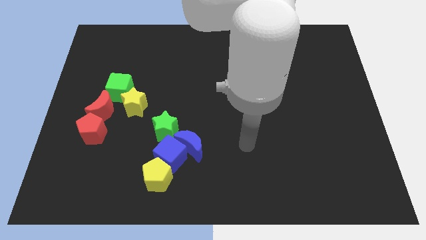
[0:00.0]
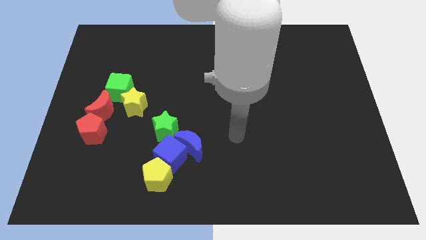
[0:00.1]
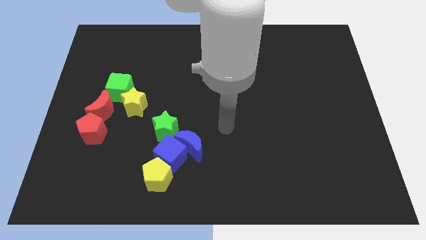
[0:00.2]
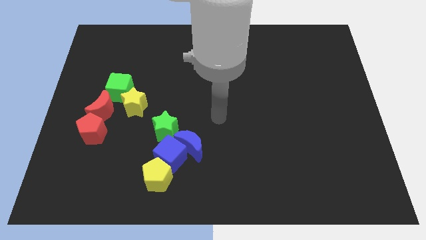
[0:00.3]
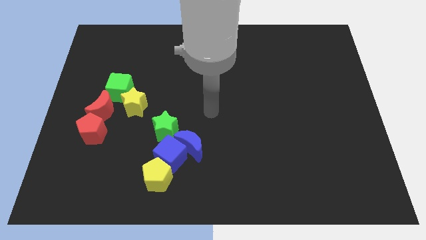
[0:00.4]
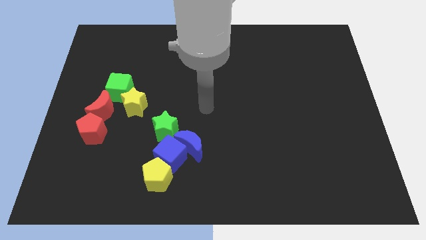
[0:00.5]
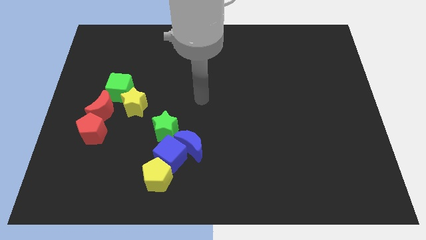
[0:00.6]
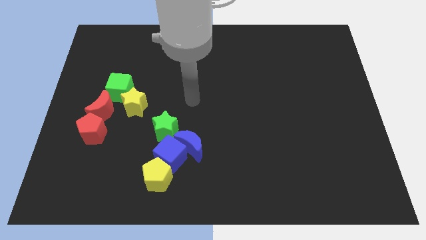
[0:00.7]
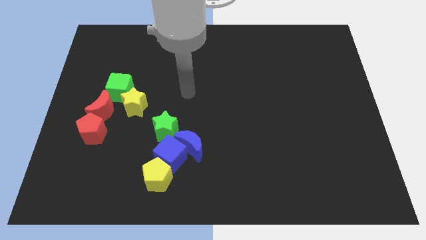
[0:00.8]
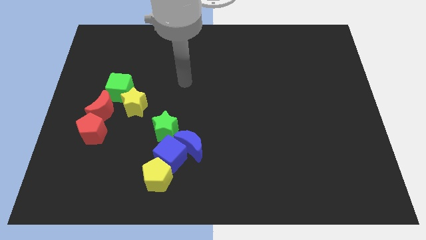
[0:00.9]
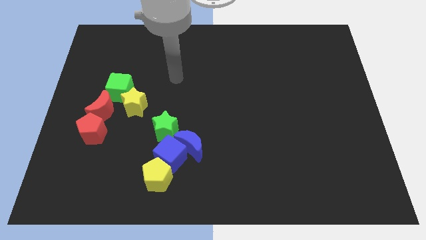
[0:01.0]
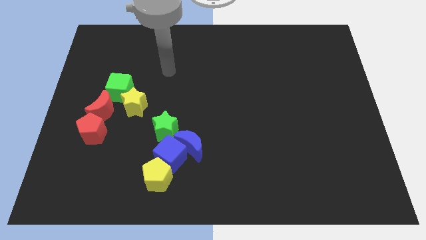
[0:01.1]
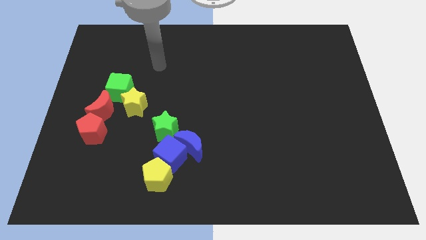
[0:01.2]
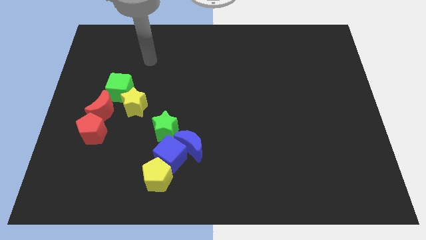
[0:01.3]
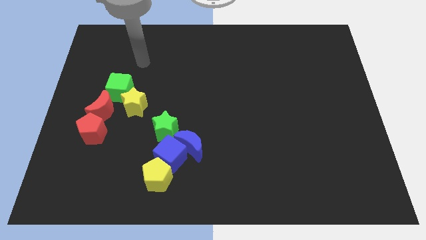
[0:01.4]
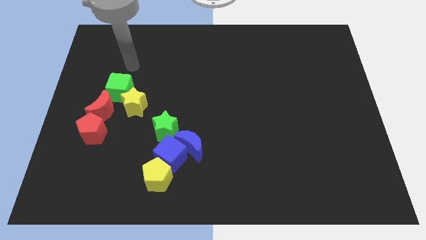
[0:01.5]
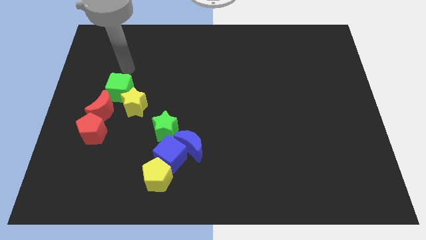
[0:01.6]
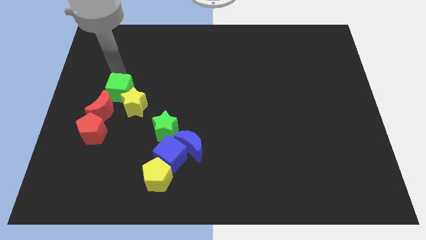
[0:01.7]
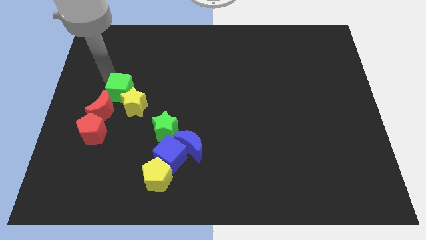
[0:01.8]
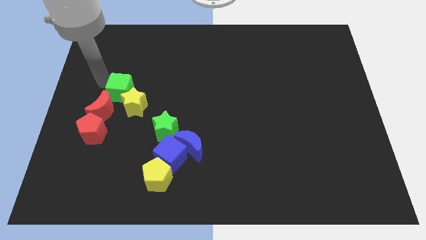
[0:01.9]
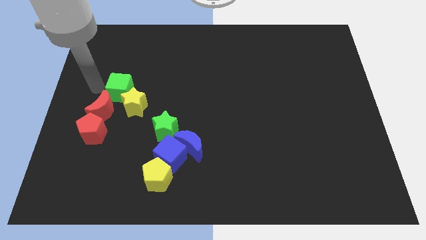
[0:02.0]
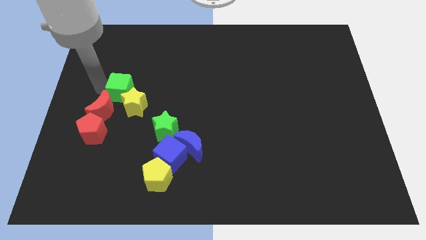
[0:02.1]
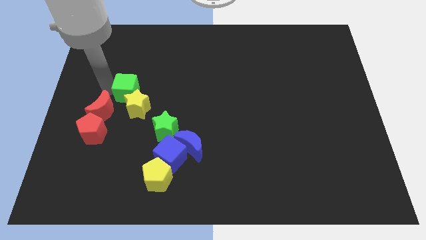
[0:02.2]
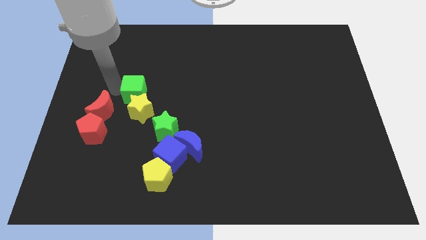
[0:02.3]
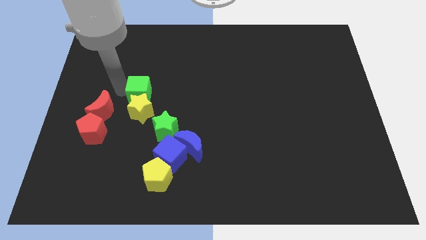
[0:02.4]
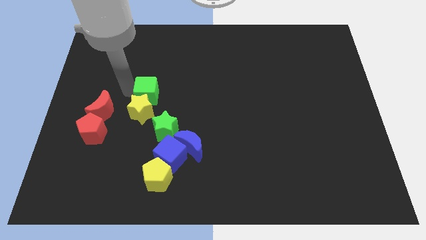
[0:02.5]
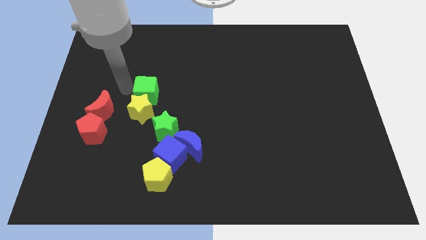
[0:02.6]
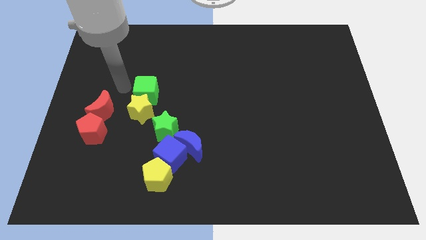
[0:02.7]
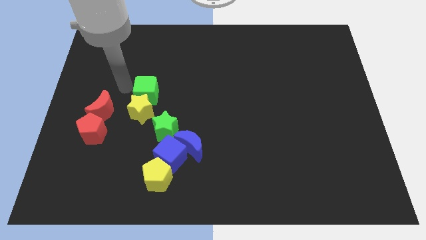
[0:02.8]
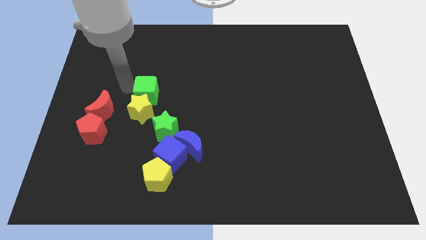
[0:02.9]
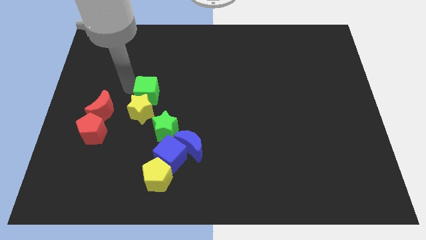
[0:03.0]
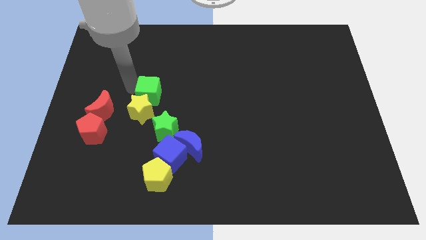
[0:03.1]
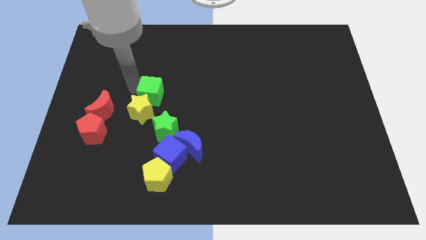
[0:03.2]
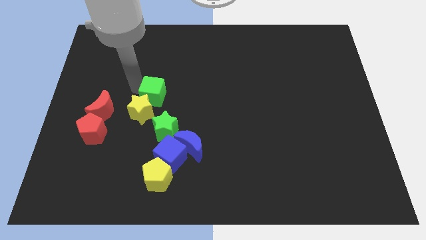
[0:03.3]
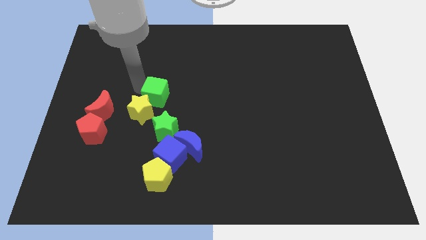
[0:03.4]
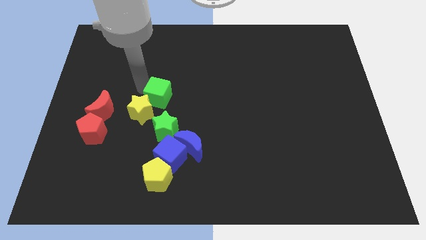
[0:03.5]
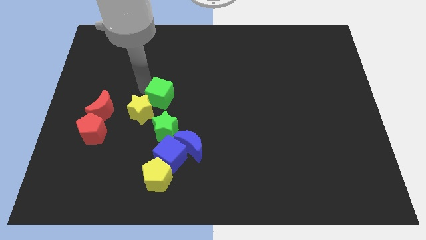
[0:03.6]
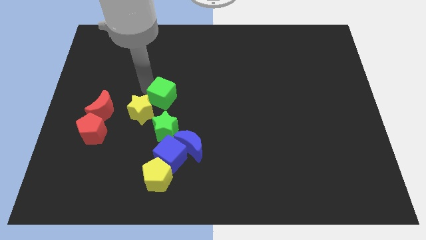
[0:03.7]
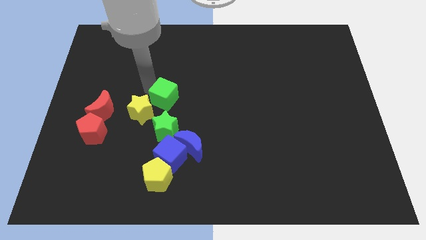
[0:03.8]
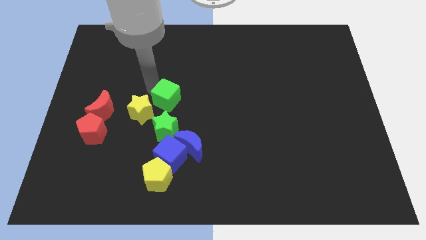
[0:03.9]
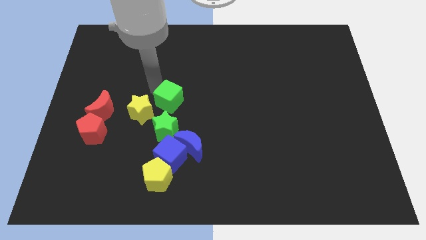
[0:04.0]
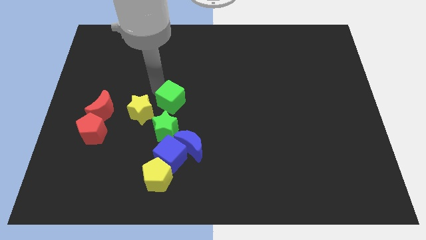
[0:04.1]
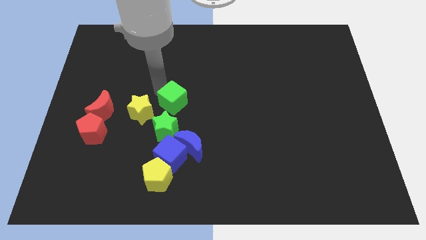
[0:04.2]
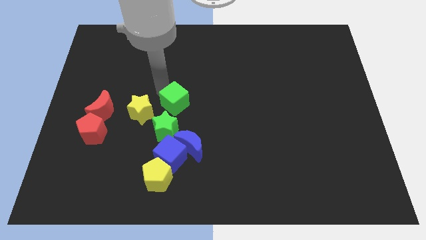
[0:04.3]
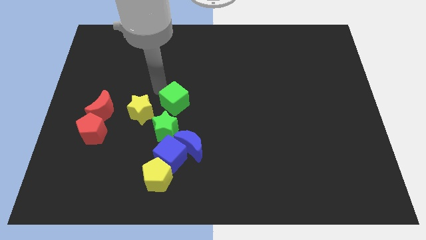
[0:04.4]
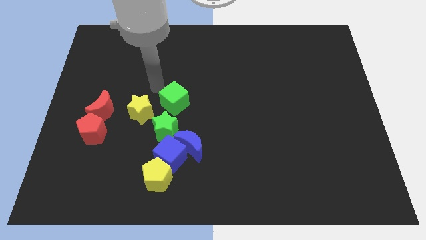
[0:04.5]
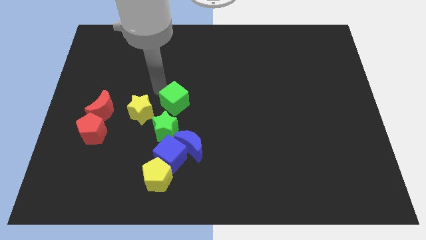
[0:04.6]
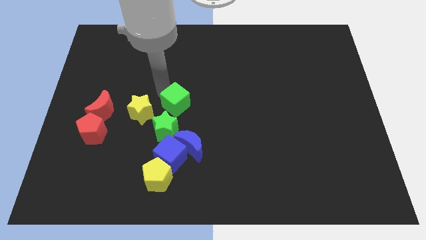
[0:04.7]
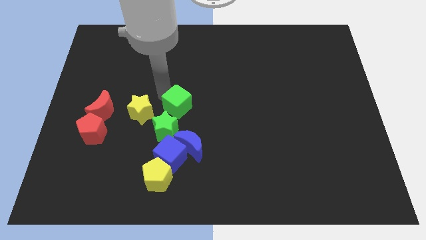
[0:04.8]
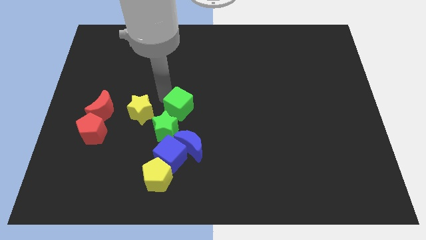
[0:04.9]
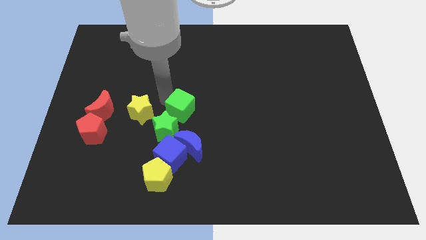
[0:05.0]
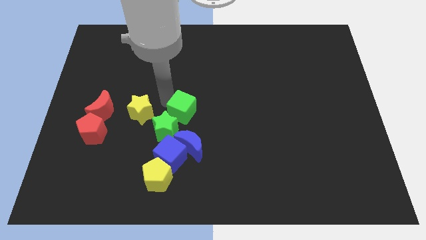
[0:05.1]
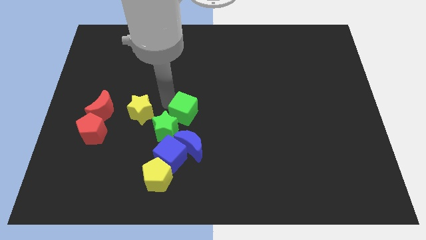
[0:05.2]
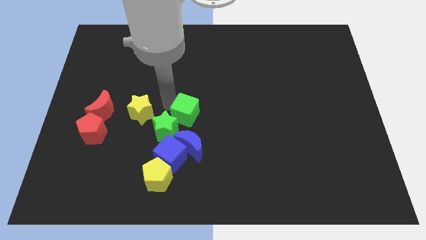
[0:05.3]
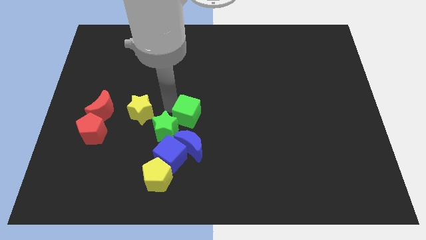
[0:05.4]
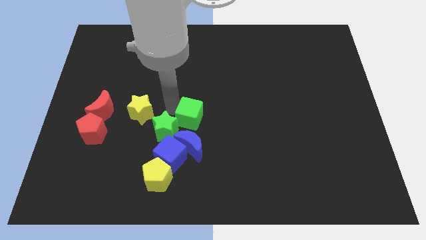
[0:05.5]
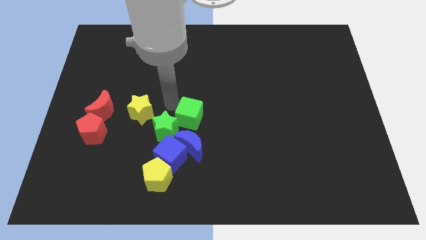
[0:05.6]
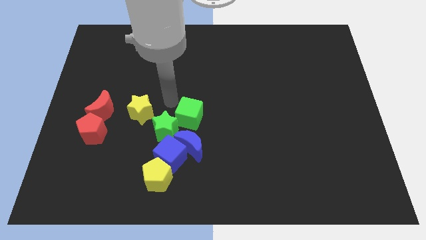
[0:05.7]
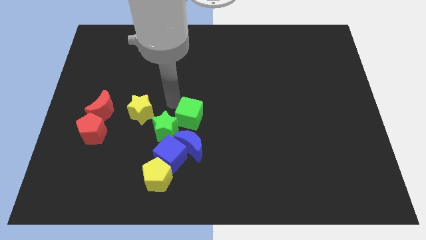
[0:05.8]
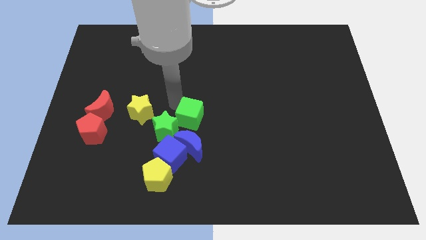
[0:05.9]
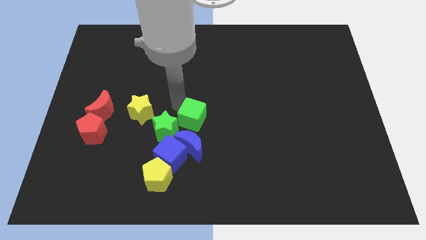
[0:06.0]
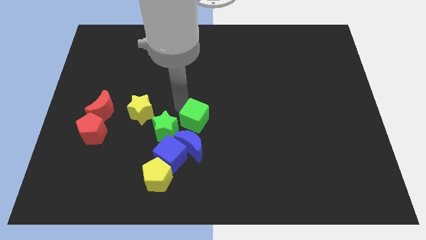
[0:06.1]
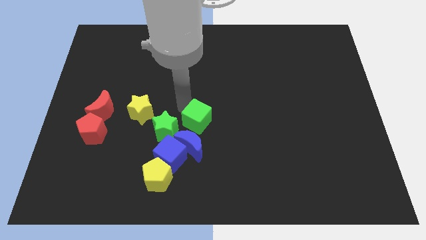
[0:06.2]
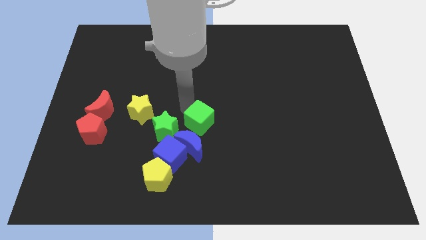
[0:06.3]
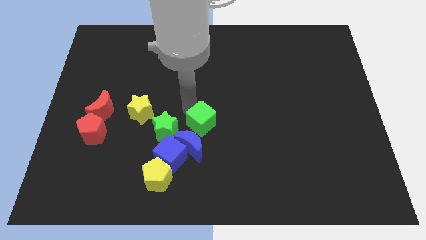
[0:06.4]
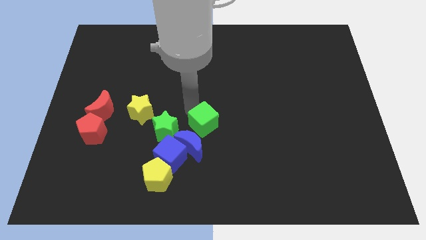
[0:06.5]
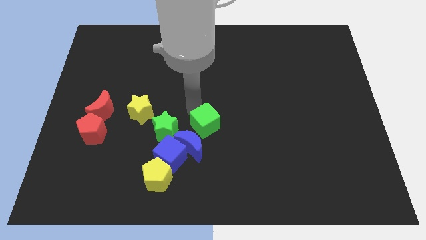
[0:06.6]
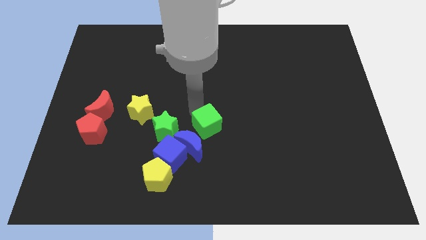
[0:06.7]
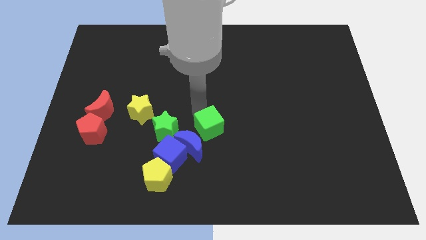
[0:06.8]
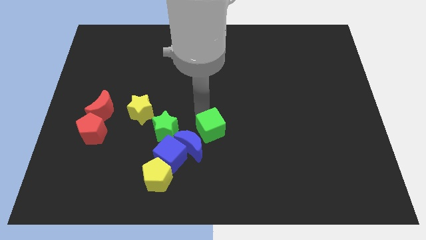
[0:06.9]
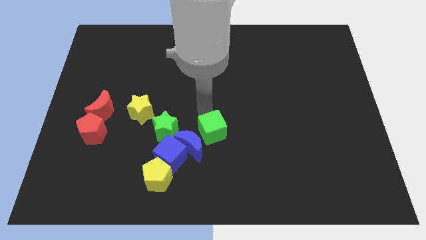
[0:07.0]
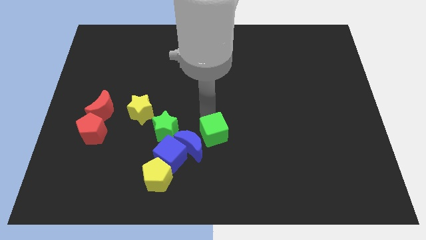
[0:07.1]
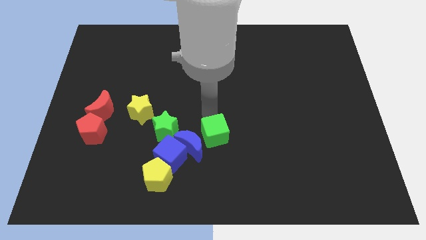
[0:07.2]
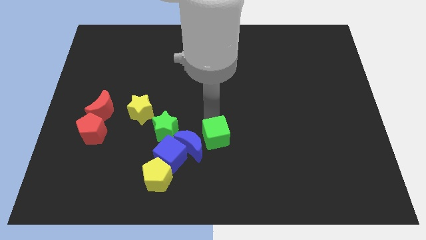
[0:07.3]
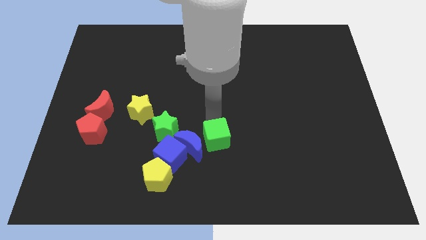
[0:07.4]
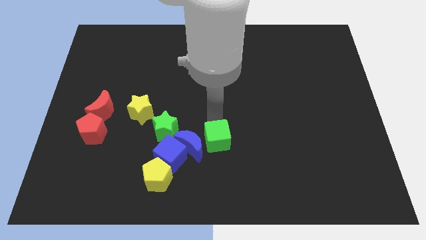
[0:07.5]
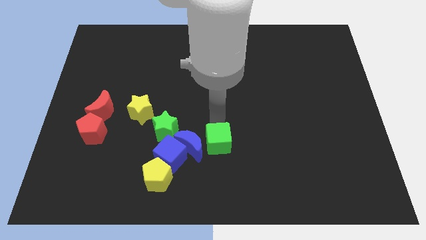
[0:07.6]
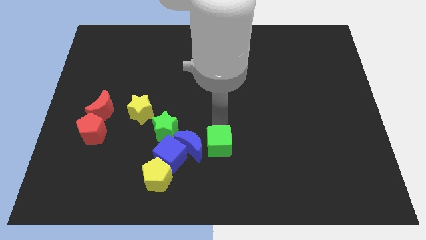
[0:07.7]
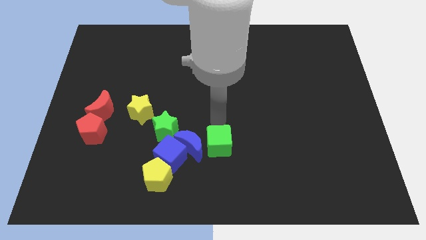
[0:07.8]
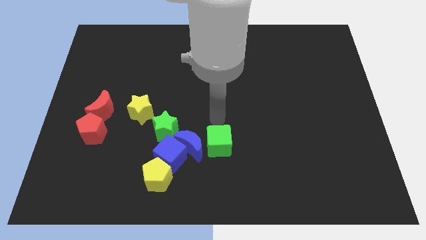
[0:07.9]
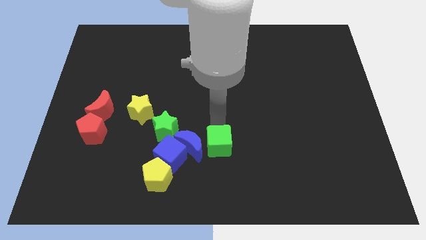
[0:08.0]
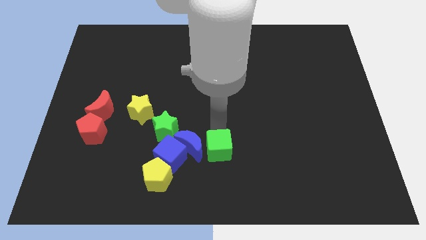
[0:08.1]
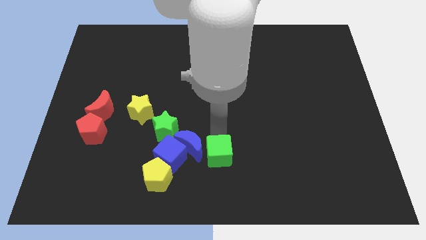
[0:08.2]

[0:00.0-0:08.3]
slide the green cube to the bottom
